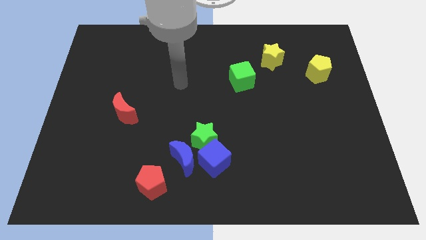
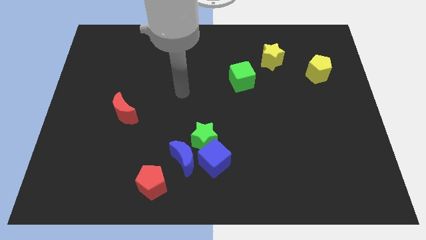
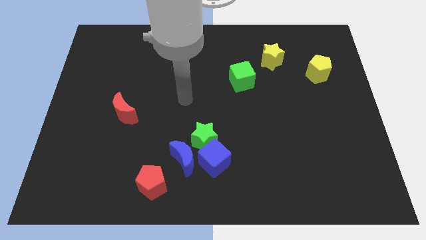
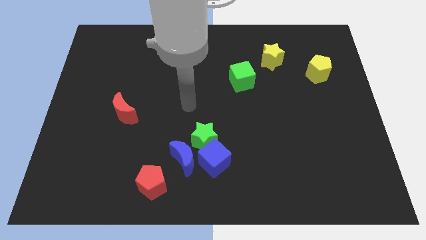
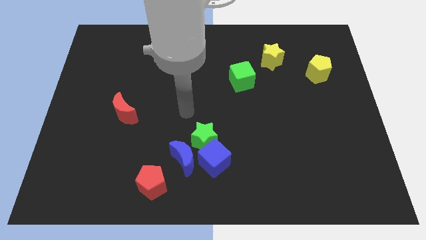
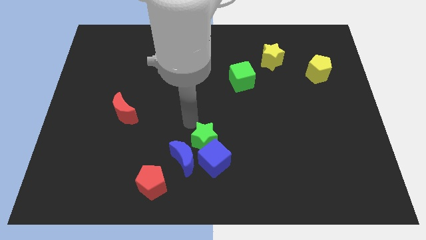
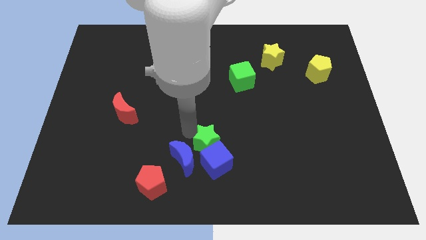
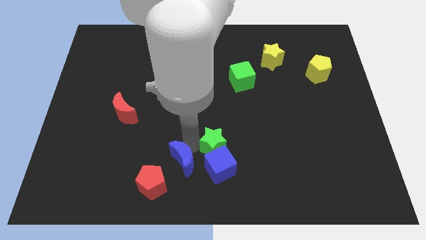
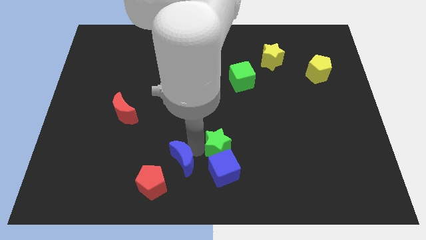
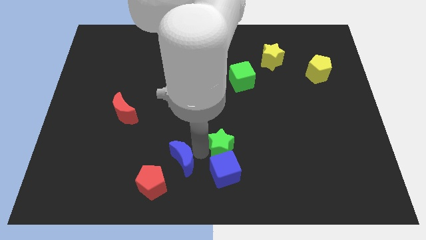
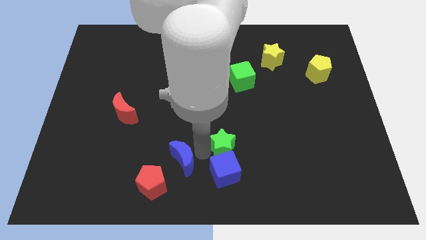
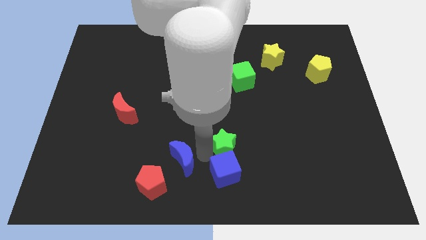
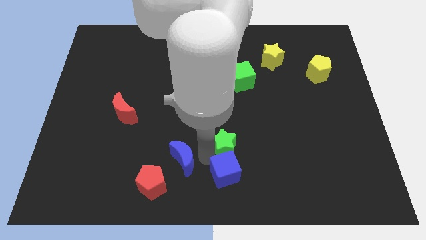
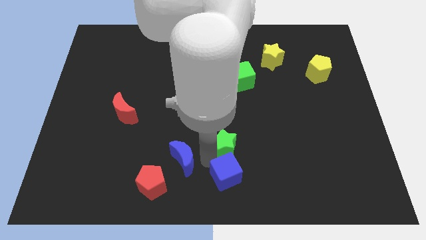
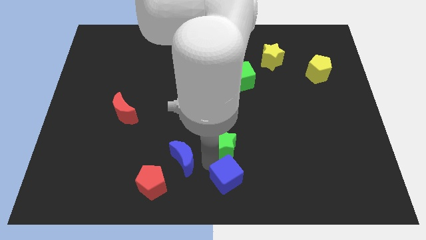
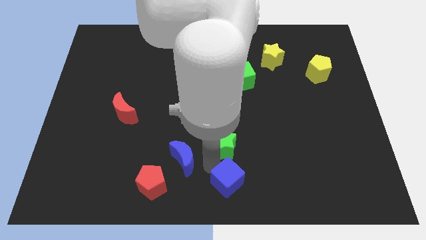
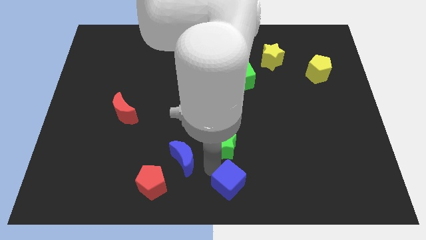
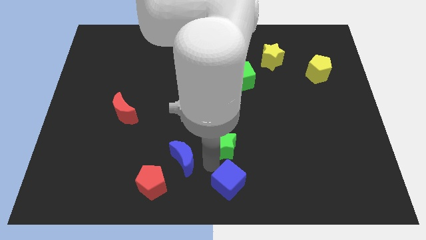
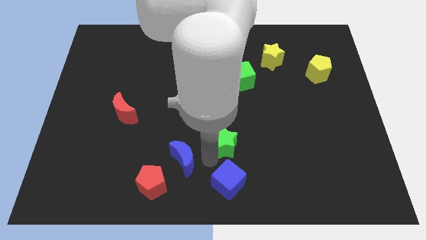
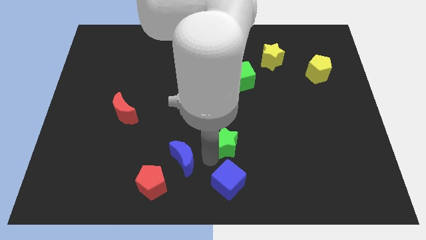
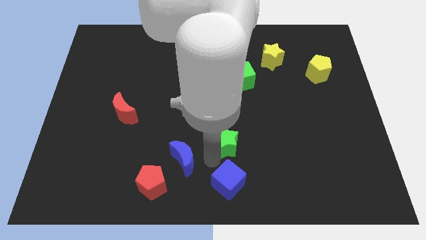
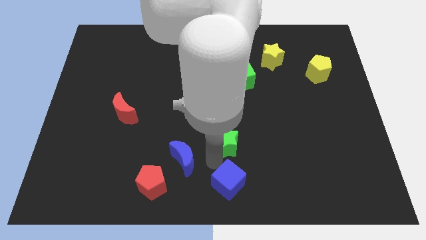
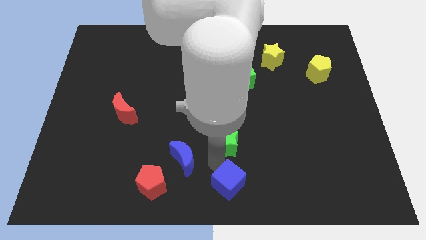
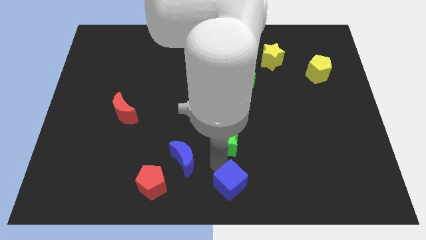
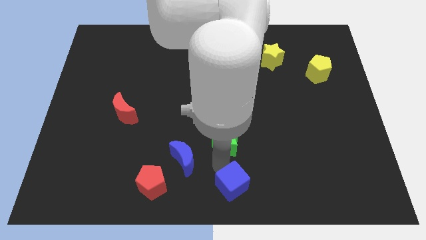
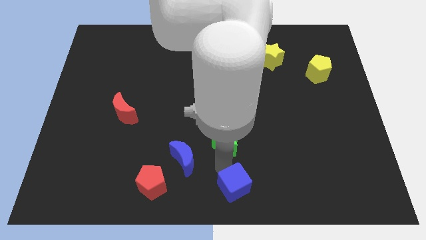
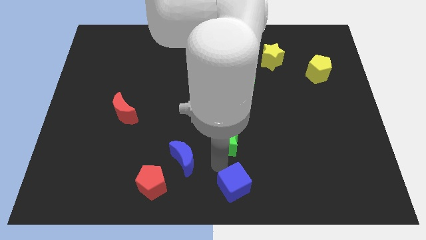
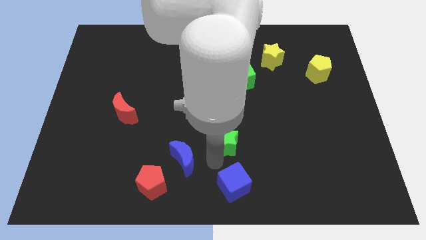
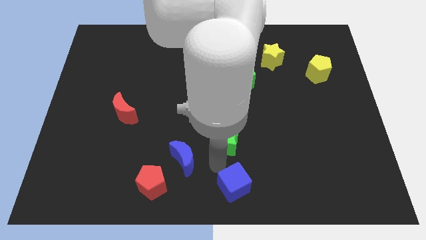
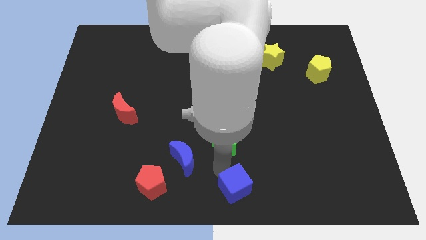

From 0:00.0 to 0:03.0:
separate the blue cube from the green star and blue moon

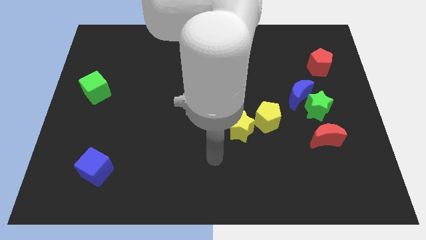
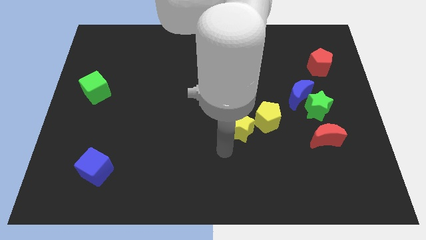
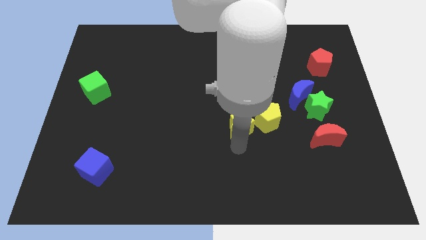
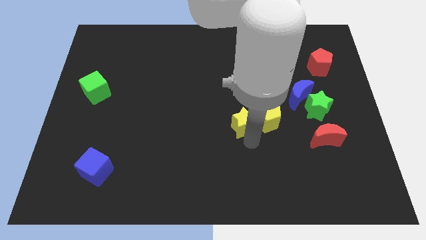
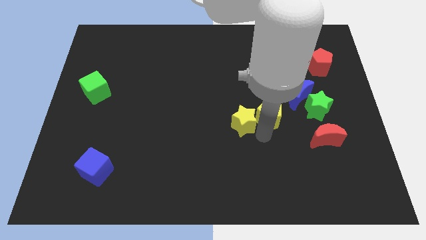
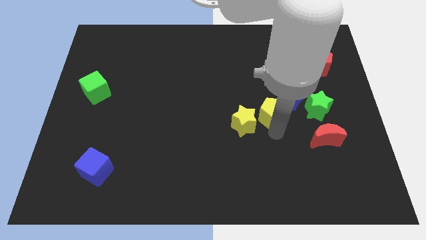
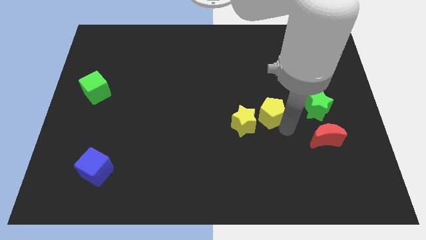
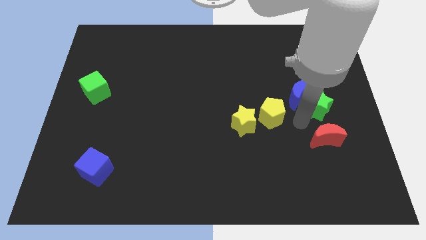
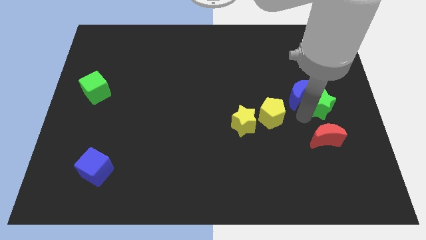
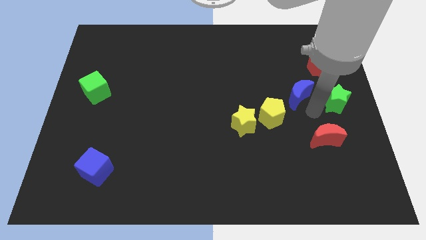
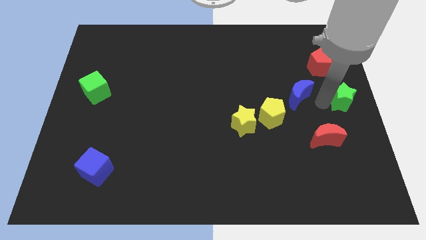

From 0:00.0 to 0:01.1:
move the blue moon away from the green star

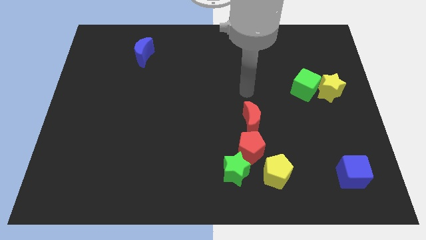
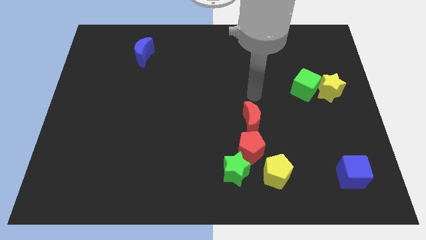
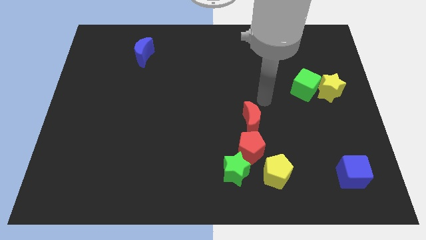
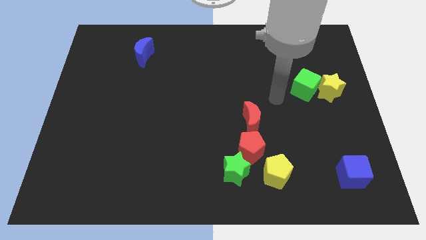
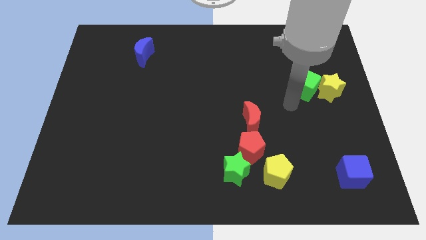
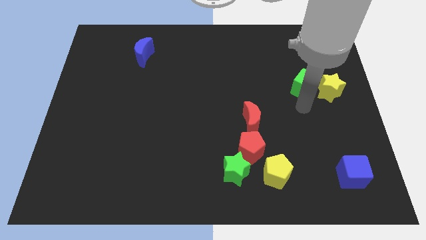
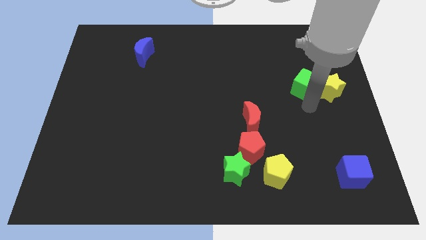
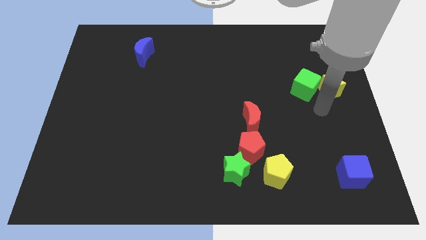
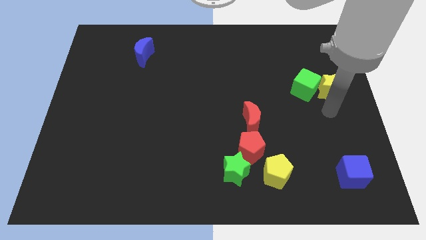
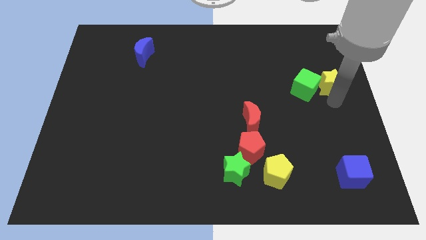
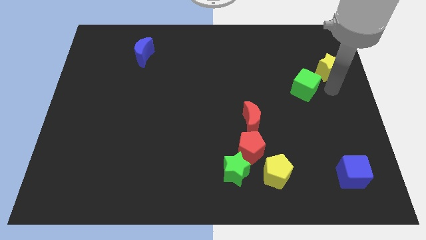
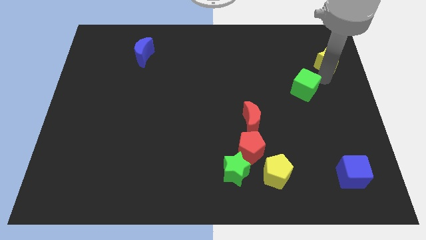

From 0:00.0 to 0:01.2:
separate the green cube from the yellow star

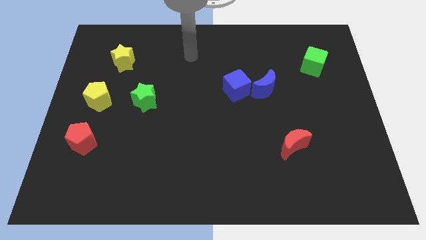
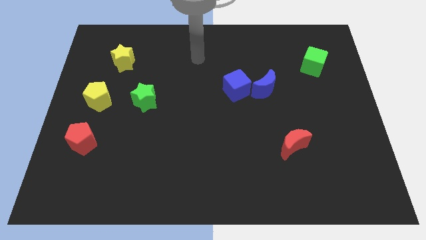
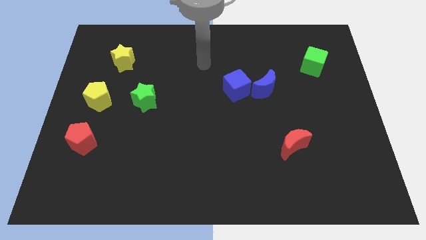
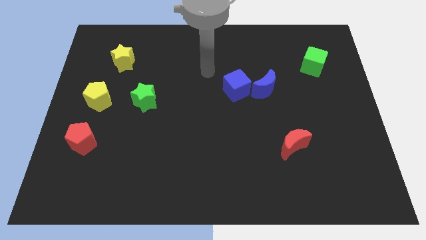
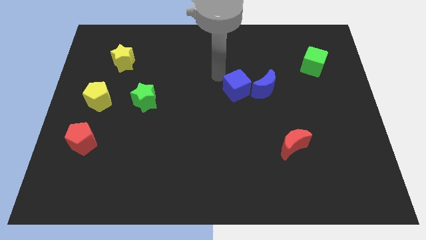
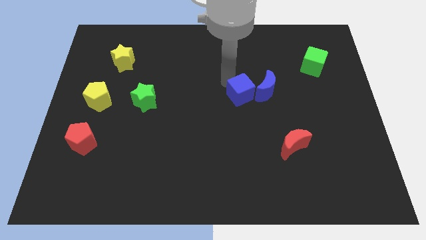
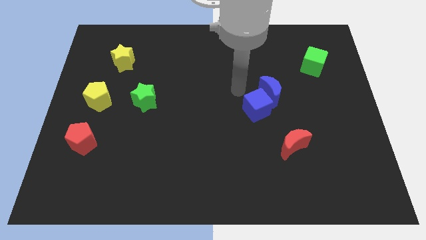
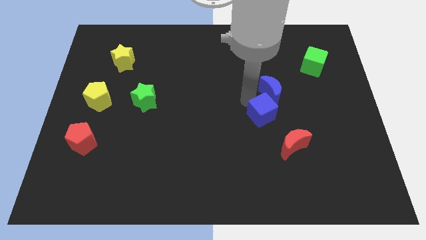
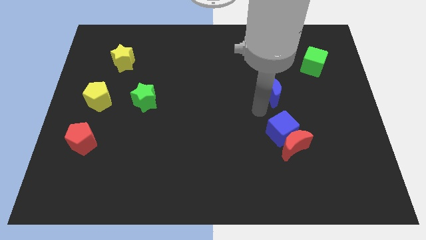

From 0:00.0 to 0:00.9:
move the blue moon away from the blue cube

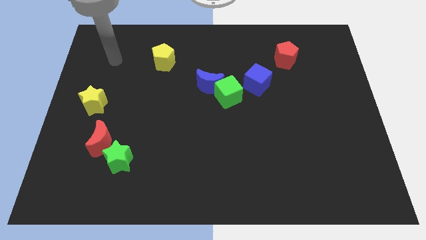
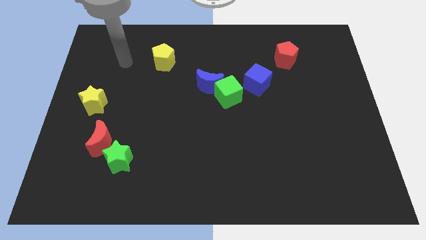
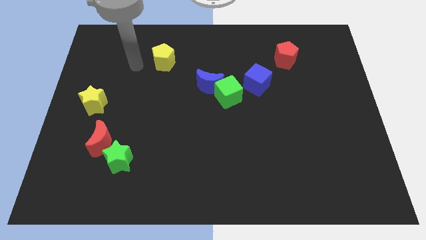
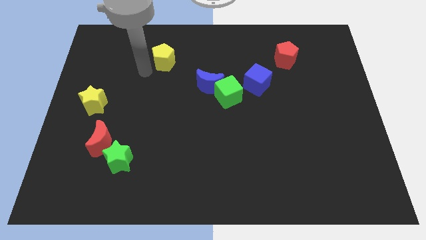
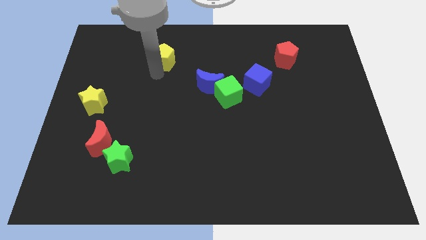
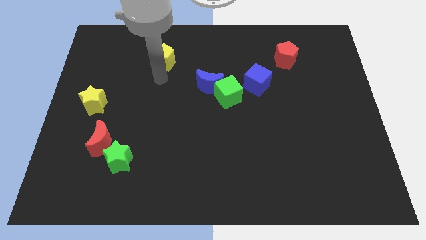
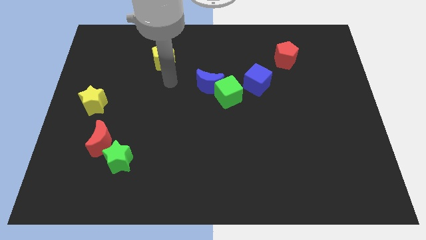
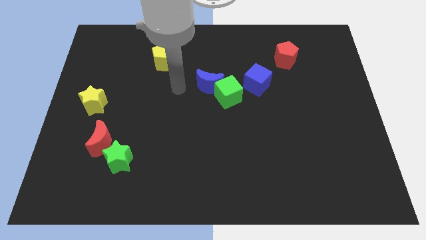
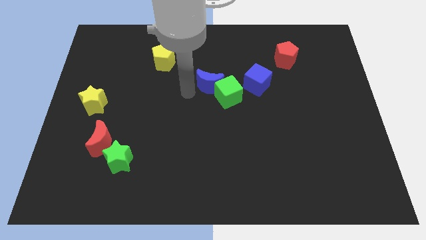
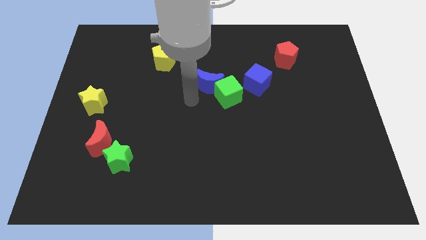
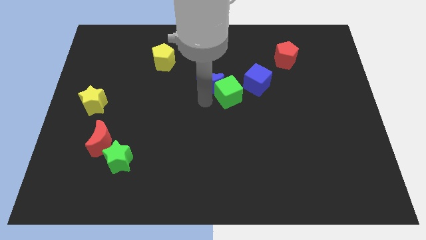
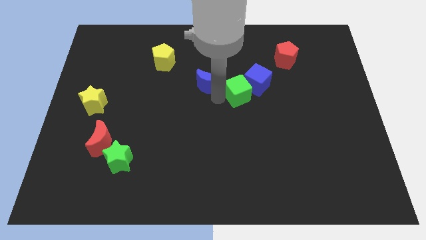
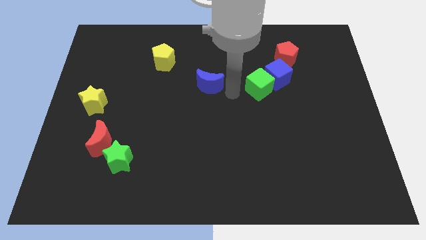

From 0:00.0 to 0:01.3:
pull the blue moon apart from the green cube

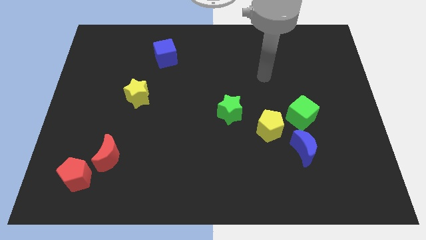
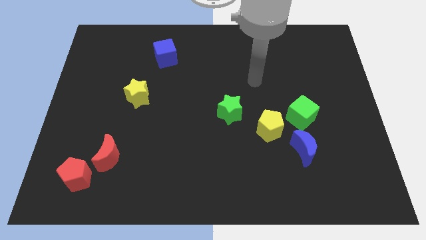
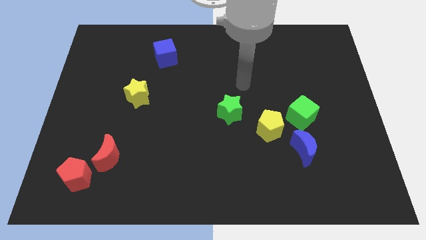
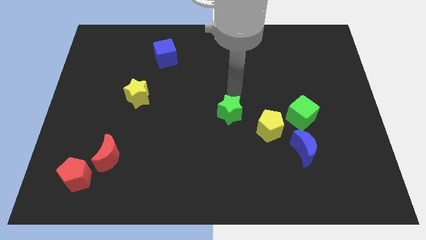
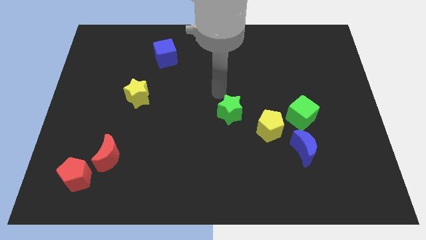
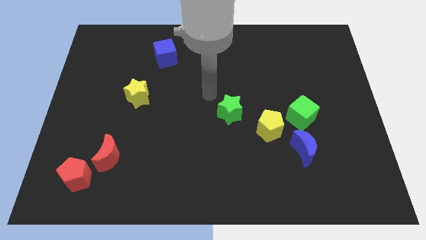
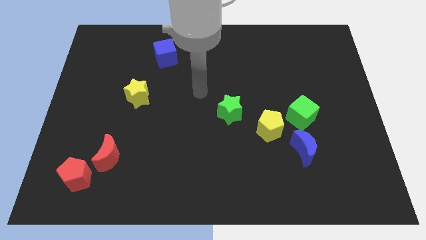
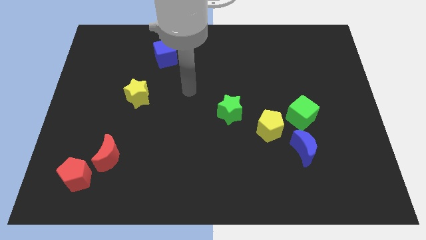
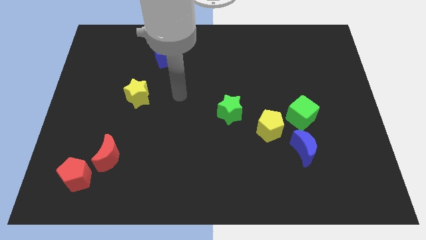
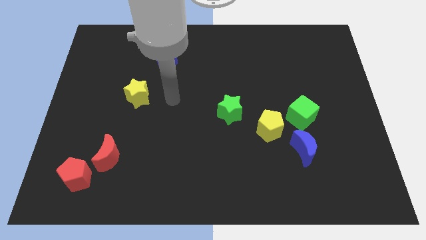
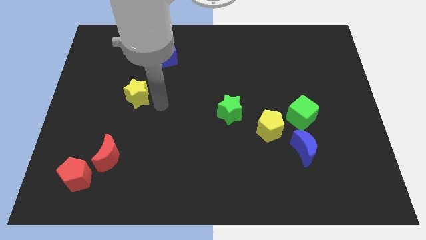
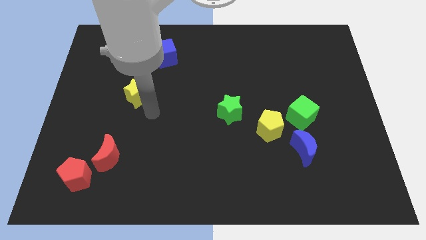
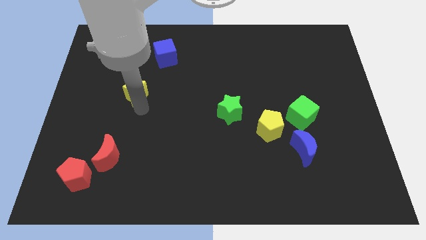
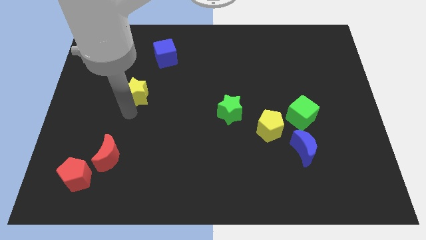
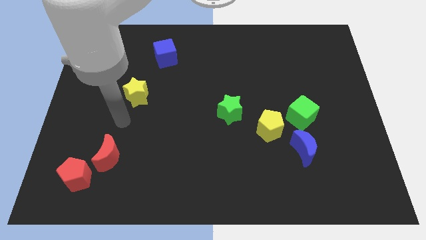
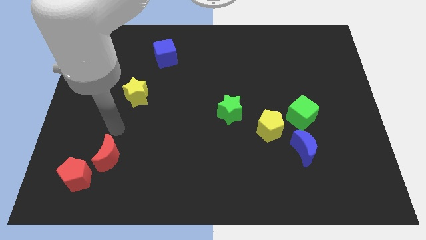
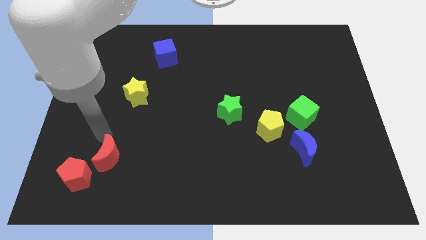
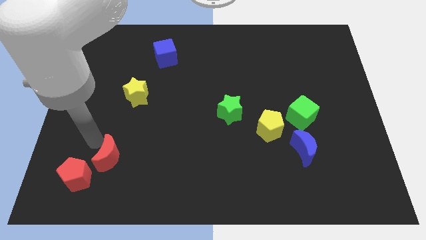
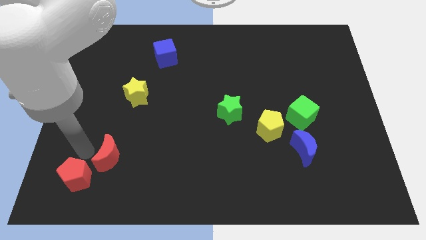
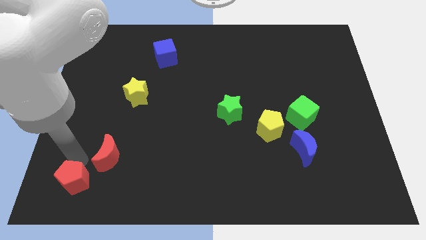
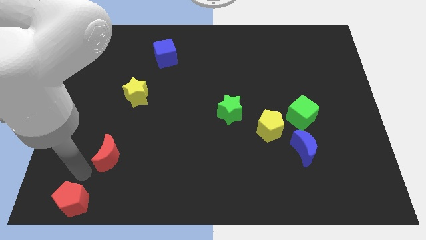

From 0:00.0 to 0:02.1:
pull the red moon apart from the red pentagon
